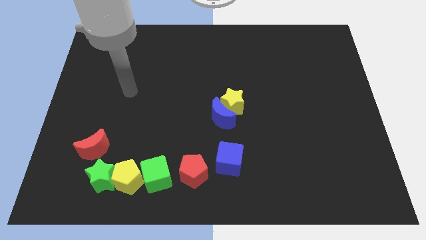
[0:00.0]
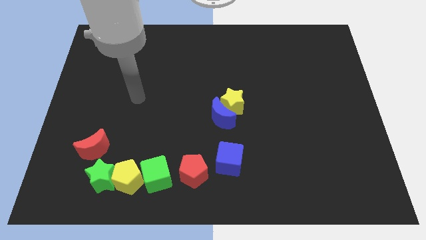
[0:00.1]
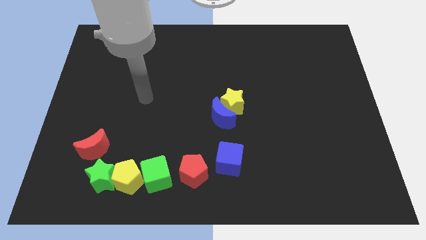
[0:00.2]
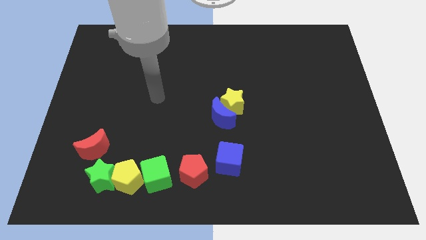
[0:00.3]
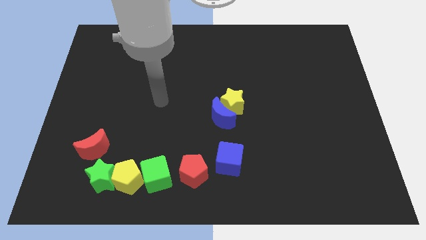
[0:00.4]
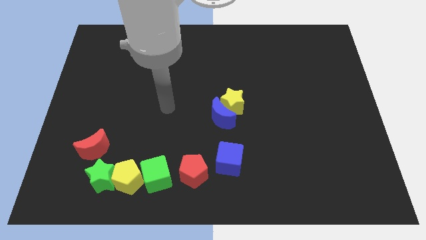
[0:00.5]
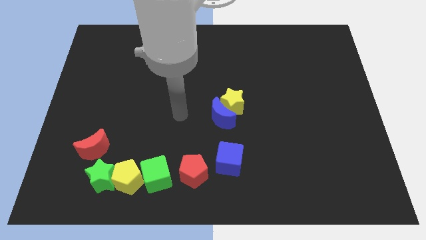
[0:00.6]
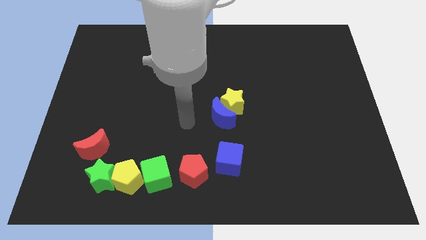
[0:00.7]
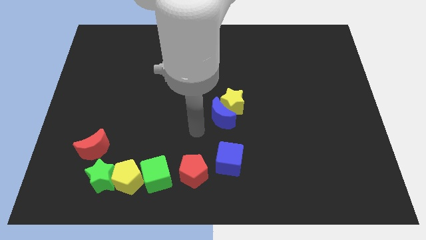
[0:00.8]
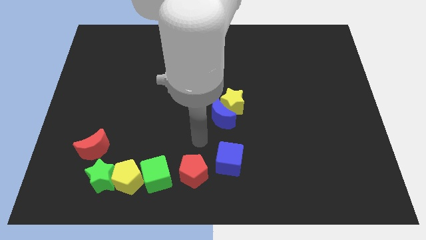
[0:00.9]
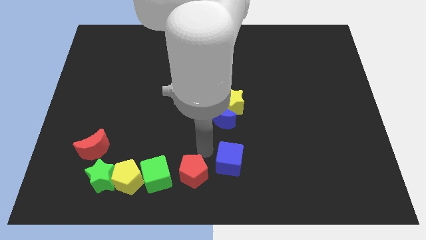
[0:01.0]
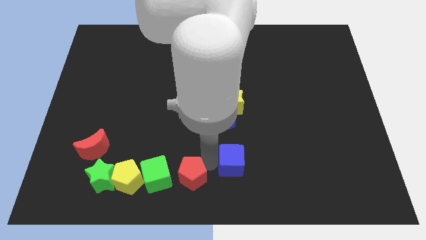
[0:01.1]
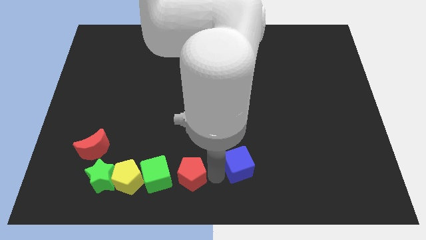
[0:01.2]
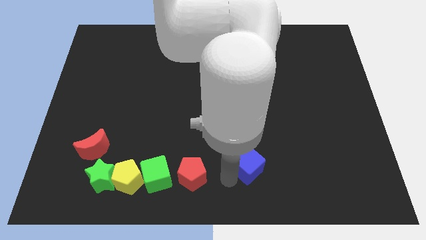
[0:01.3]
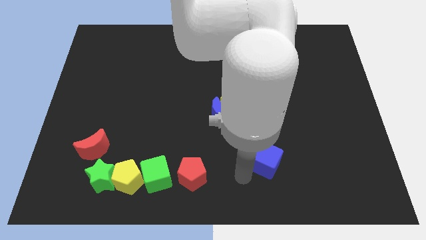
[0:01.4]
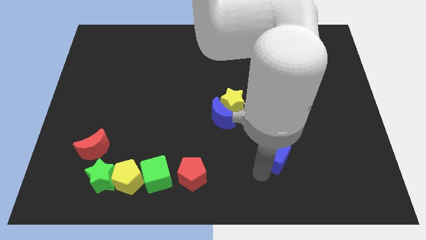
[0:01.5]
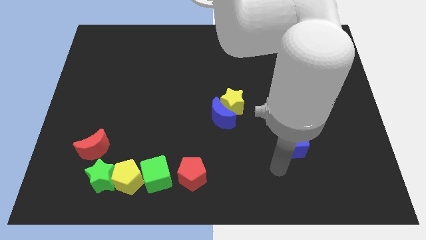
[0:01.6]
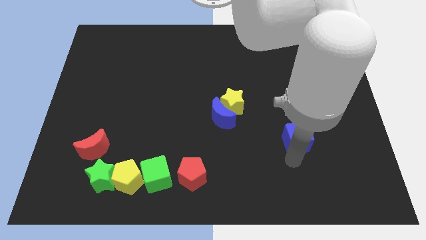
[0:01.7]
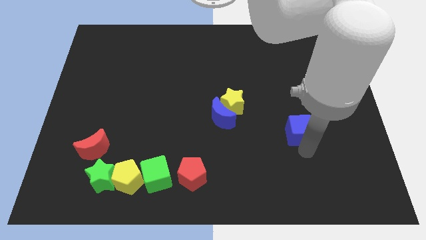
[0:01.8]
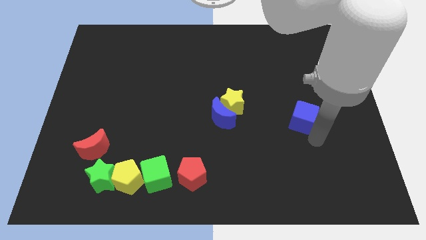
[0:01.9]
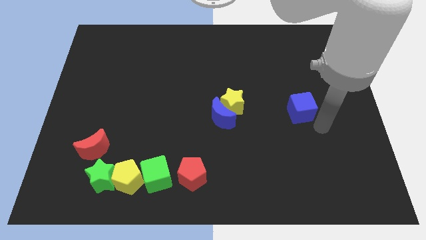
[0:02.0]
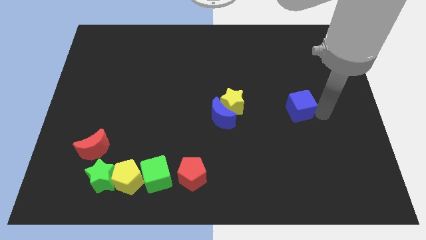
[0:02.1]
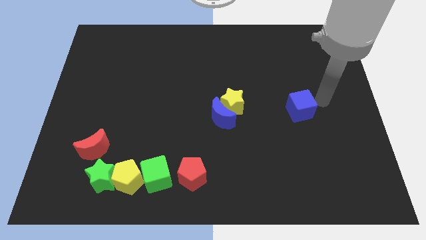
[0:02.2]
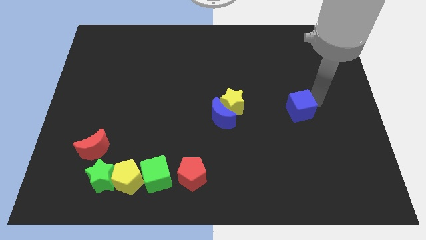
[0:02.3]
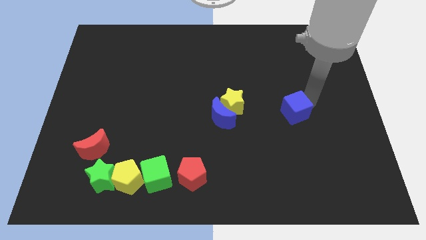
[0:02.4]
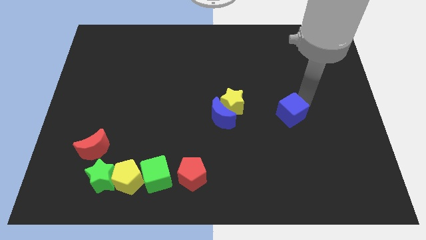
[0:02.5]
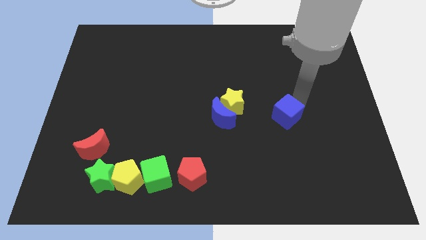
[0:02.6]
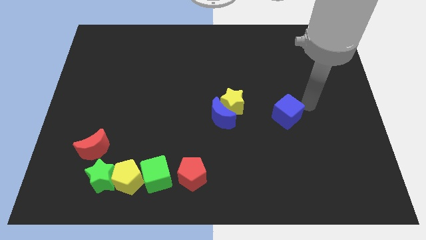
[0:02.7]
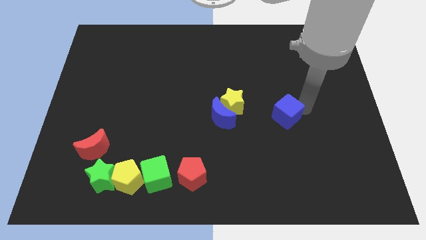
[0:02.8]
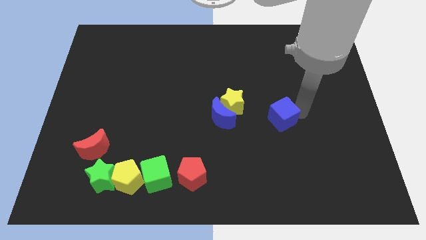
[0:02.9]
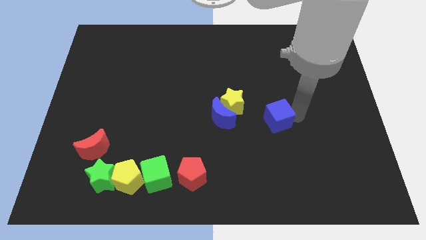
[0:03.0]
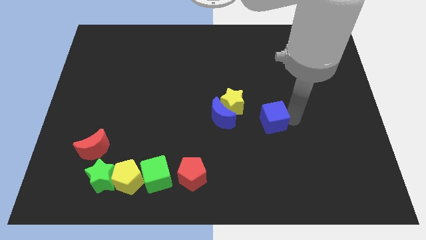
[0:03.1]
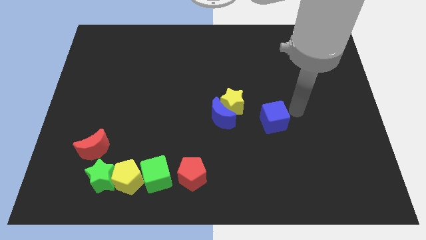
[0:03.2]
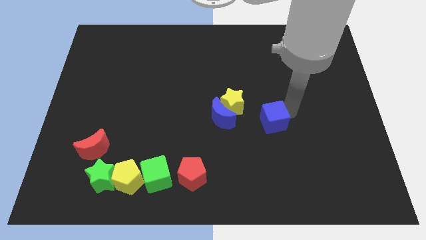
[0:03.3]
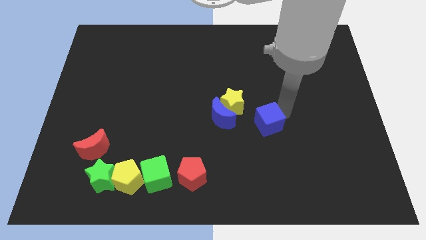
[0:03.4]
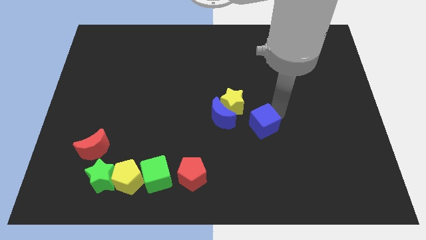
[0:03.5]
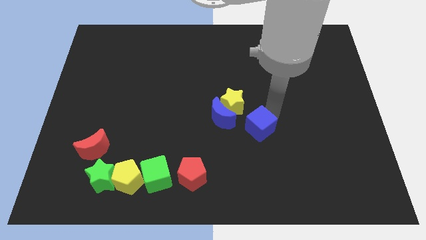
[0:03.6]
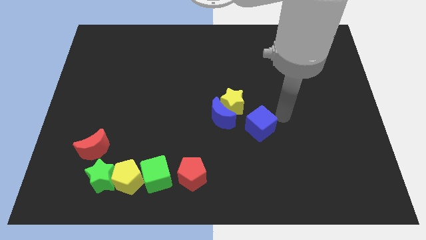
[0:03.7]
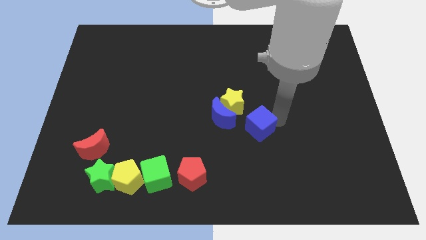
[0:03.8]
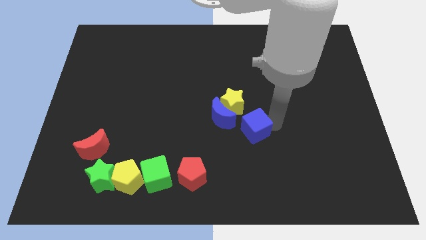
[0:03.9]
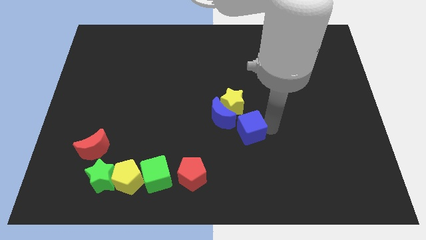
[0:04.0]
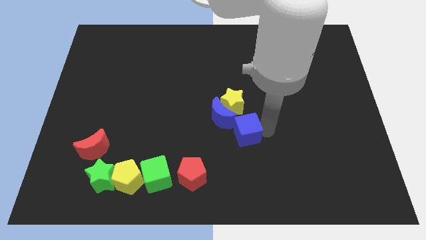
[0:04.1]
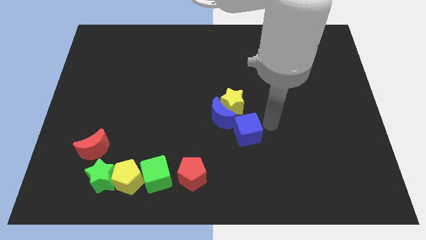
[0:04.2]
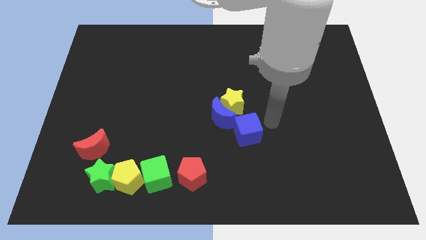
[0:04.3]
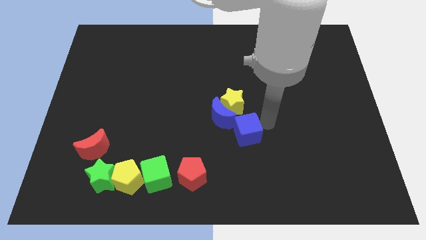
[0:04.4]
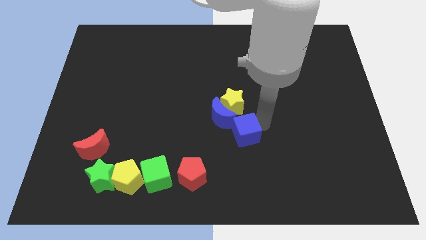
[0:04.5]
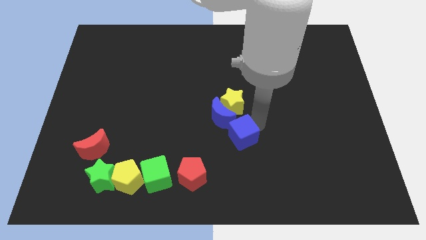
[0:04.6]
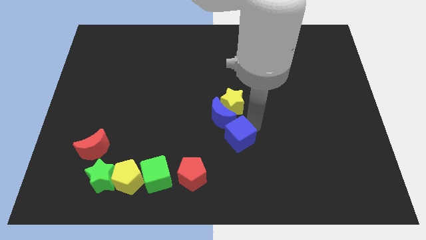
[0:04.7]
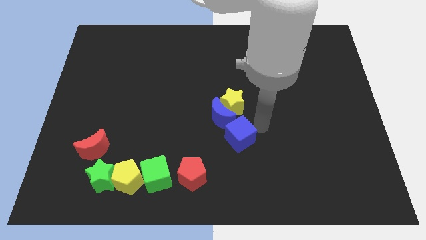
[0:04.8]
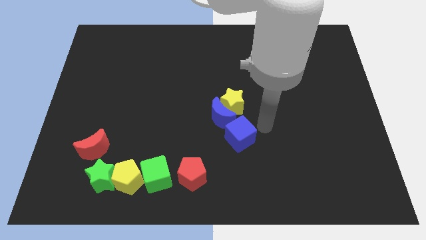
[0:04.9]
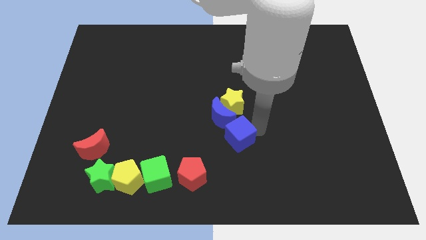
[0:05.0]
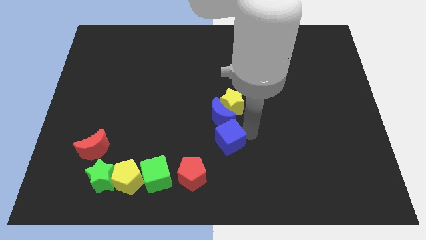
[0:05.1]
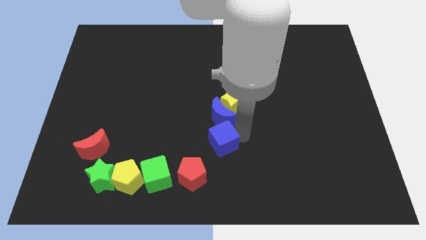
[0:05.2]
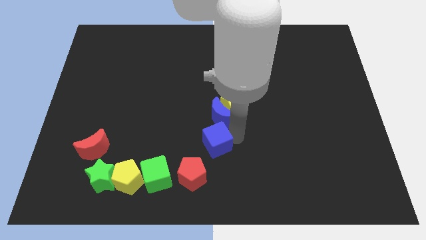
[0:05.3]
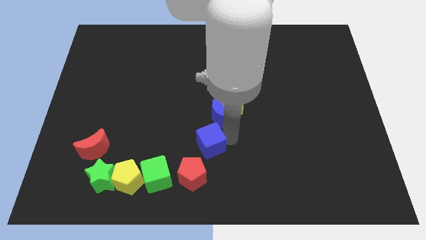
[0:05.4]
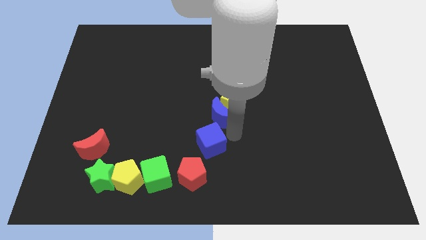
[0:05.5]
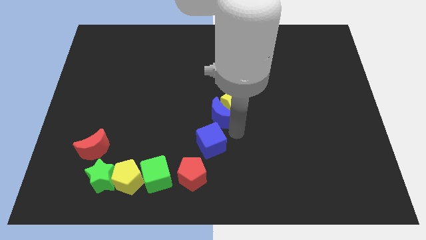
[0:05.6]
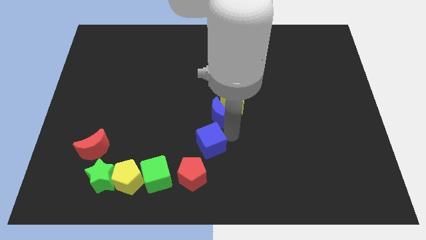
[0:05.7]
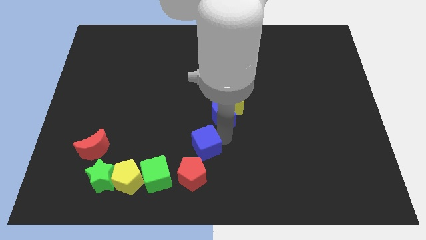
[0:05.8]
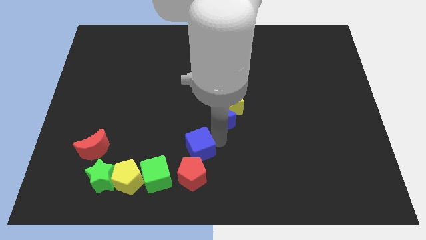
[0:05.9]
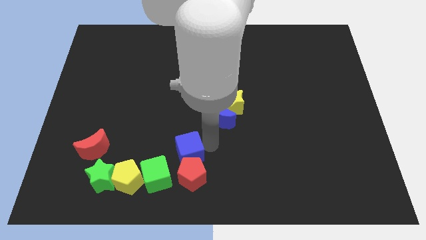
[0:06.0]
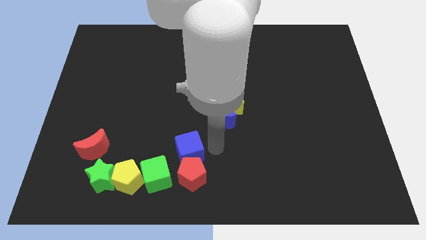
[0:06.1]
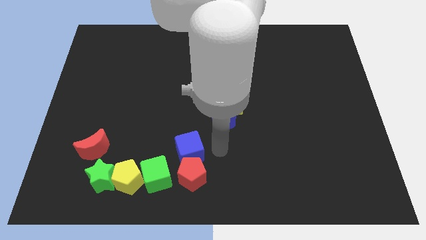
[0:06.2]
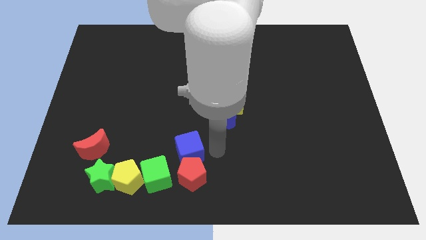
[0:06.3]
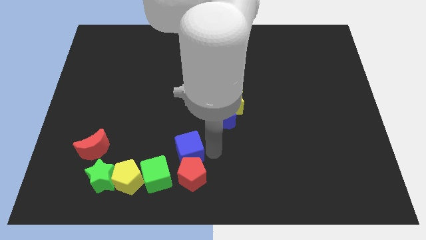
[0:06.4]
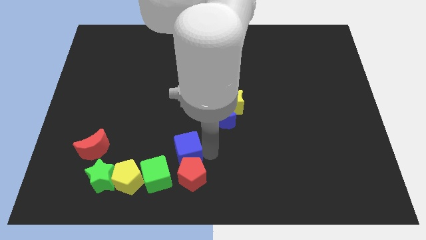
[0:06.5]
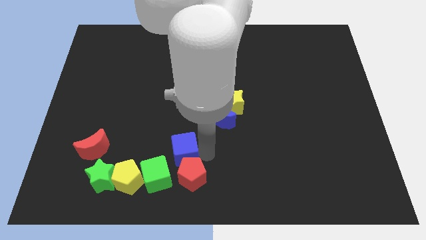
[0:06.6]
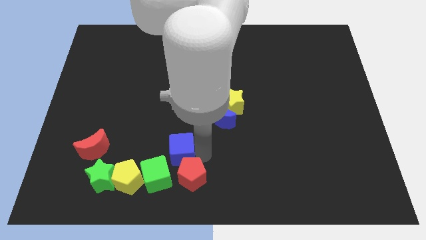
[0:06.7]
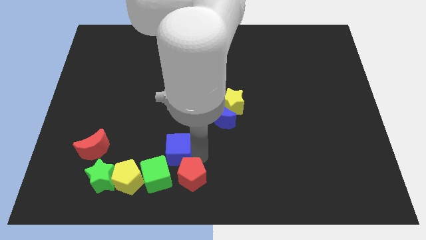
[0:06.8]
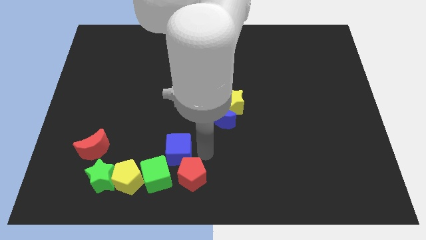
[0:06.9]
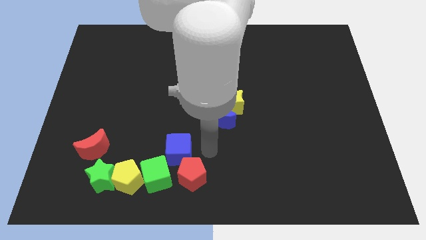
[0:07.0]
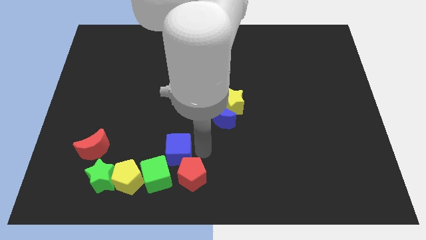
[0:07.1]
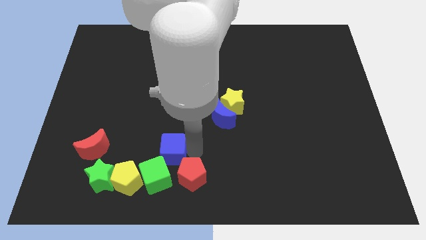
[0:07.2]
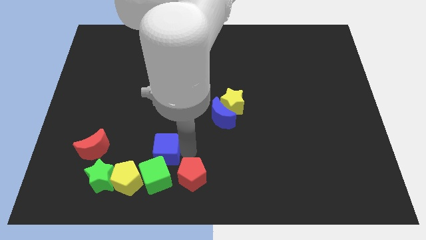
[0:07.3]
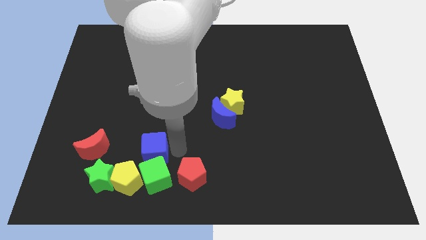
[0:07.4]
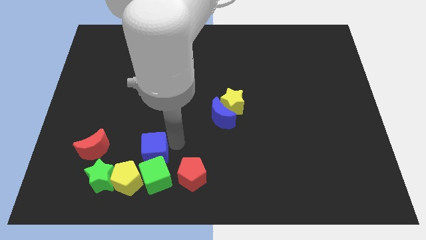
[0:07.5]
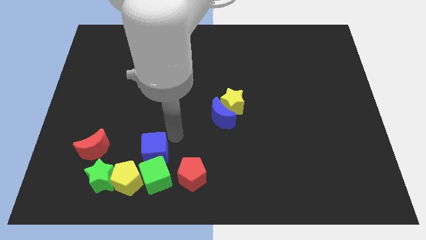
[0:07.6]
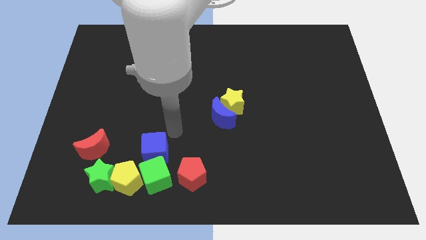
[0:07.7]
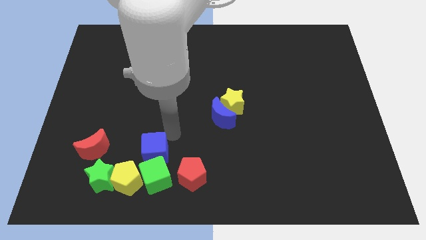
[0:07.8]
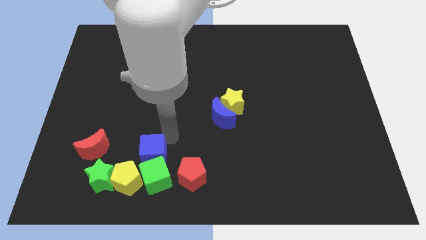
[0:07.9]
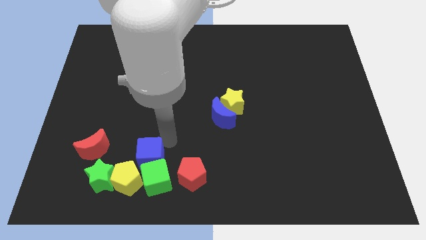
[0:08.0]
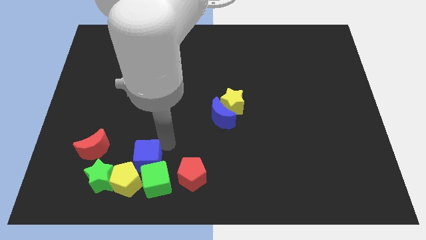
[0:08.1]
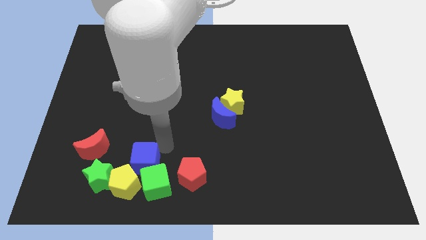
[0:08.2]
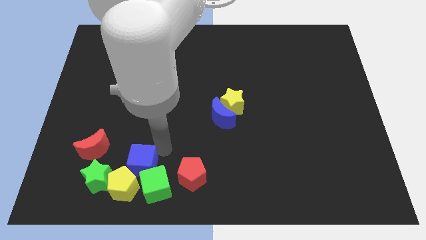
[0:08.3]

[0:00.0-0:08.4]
move the blue cube close to the yellow pentagon
